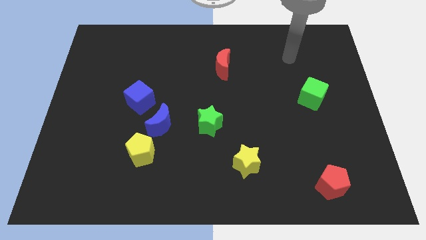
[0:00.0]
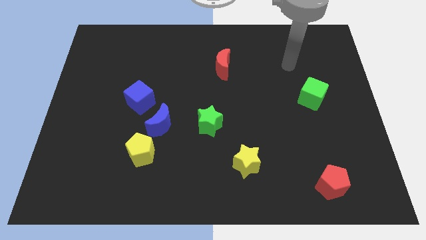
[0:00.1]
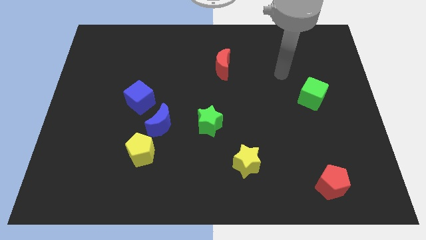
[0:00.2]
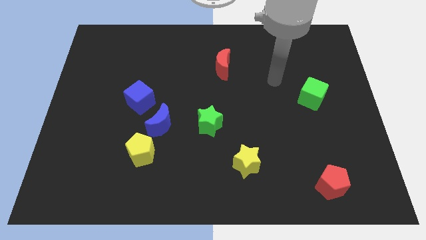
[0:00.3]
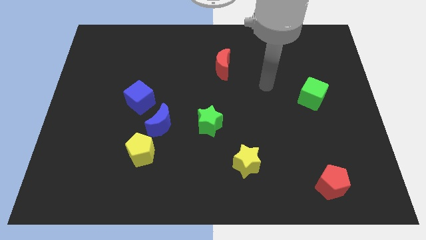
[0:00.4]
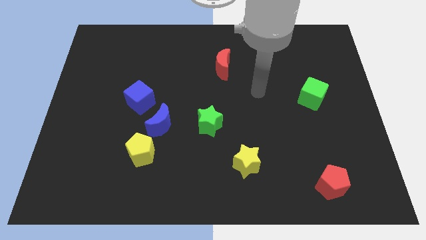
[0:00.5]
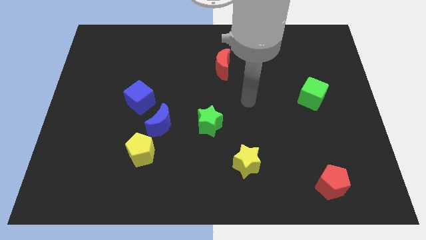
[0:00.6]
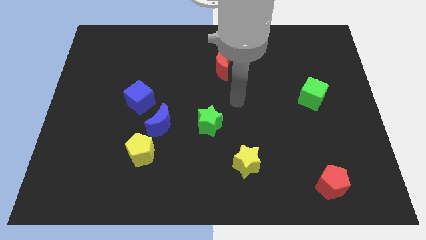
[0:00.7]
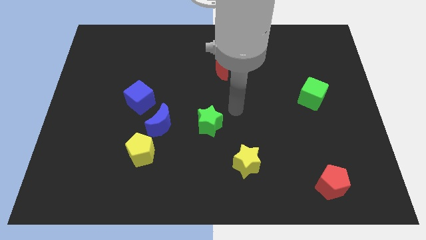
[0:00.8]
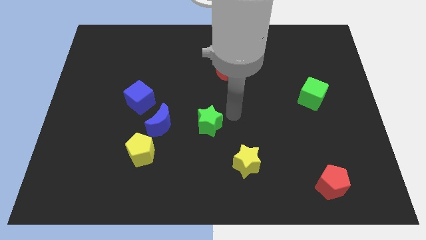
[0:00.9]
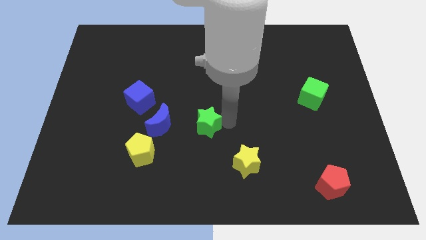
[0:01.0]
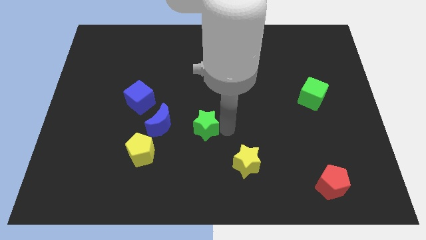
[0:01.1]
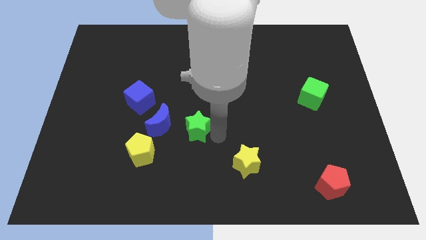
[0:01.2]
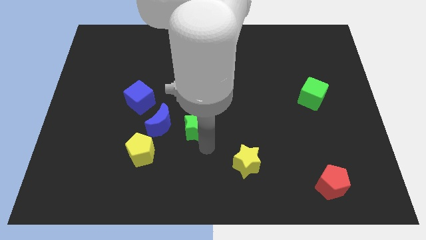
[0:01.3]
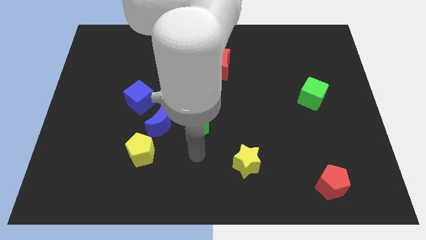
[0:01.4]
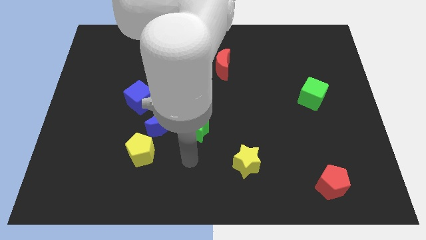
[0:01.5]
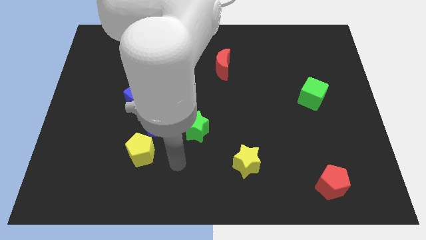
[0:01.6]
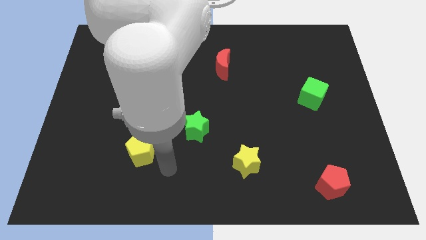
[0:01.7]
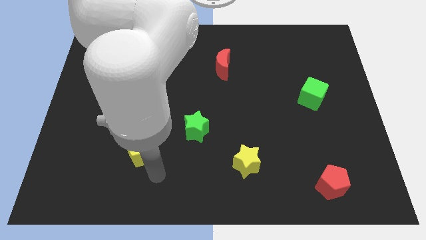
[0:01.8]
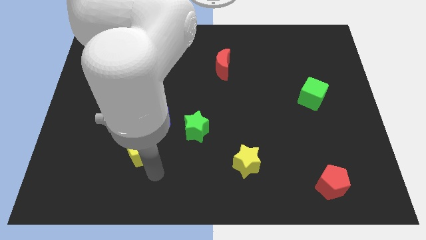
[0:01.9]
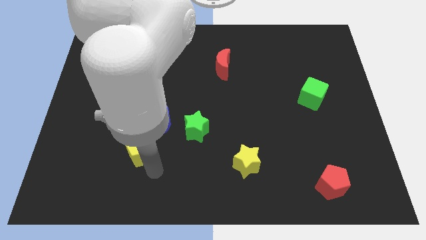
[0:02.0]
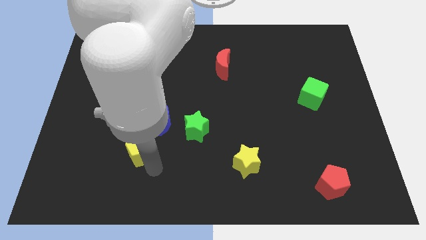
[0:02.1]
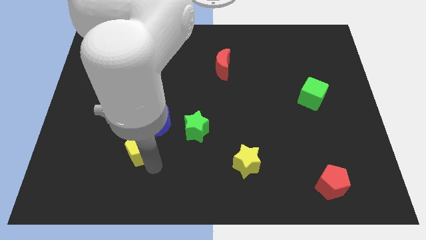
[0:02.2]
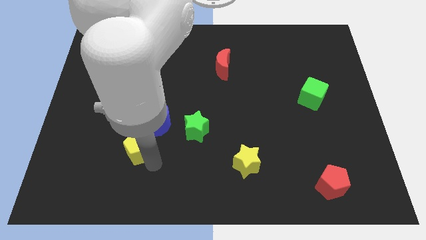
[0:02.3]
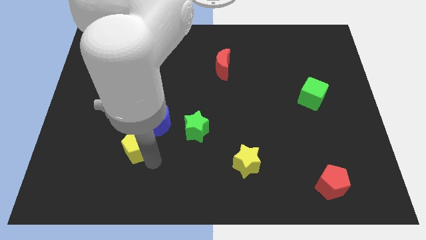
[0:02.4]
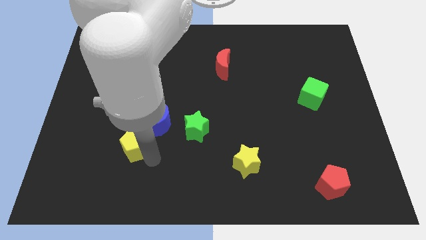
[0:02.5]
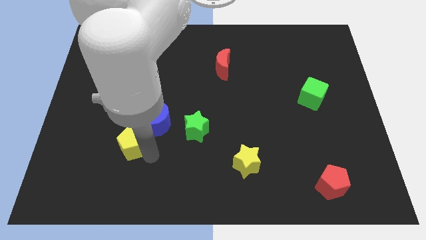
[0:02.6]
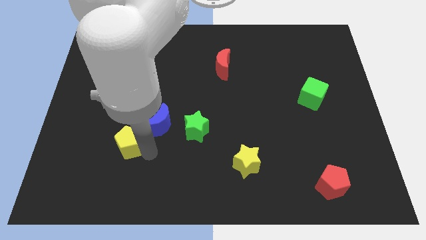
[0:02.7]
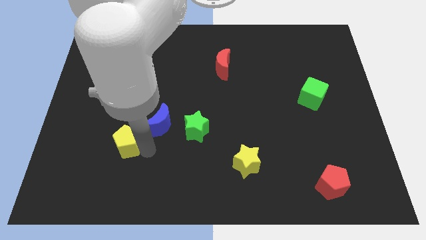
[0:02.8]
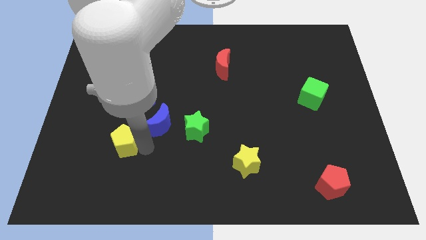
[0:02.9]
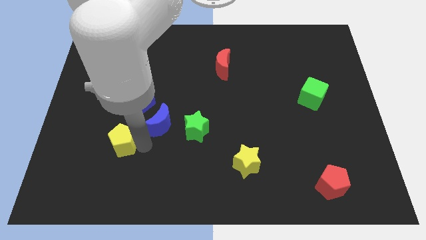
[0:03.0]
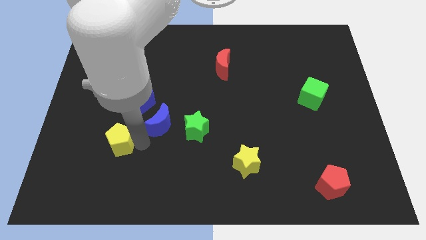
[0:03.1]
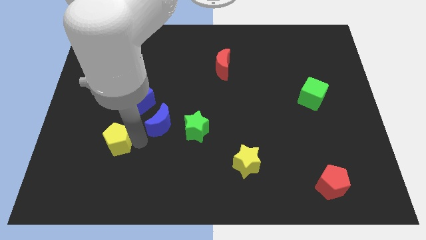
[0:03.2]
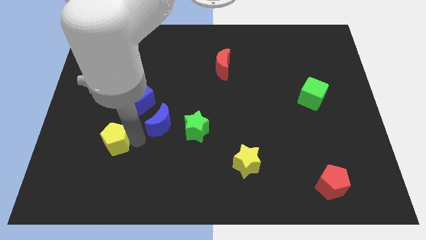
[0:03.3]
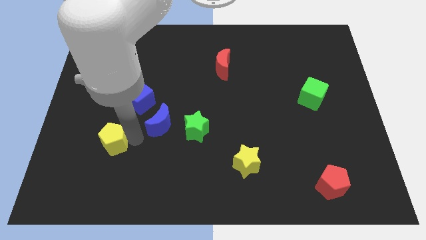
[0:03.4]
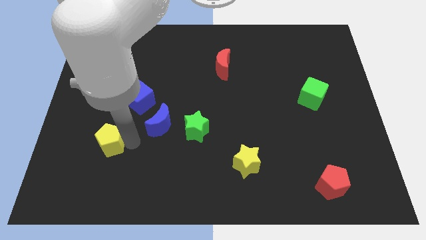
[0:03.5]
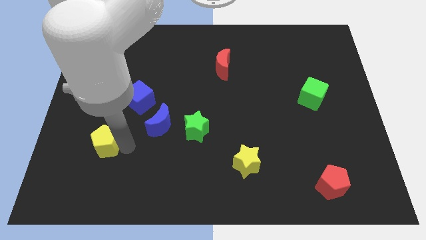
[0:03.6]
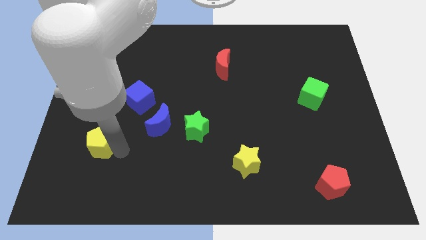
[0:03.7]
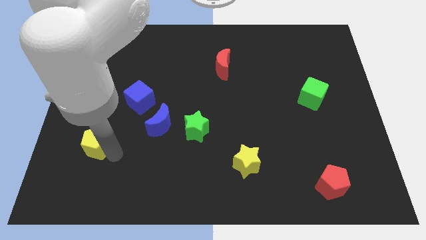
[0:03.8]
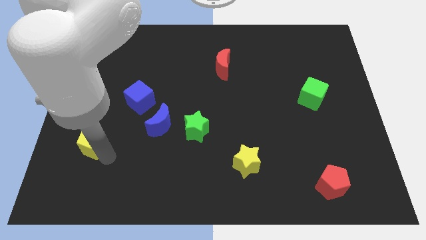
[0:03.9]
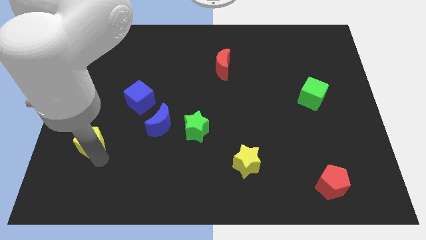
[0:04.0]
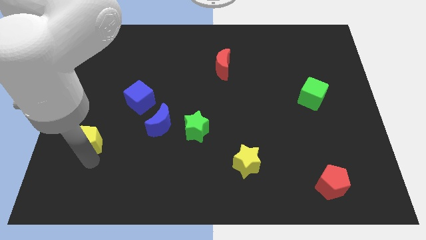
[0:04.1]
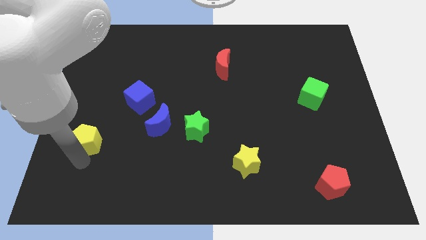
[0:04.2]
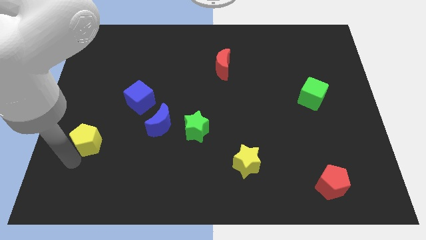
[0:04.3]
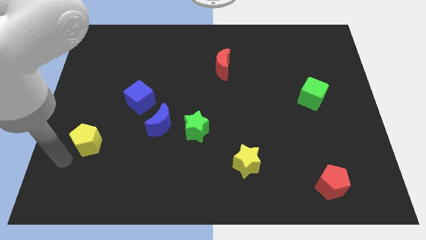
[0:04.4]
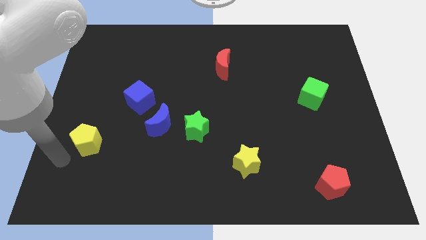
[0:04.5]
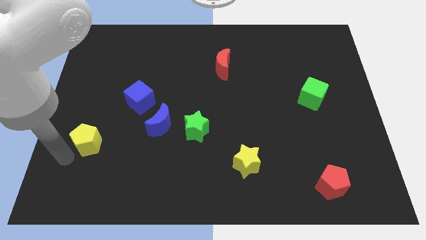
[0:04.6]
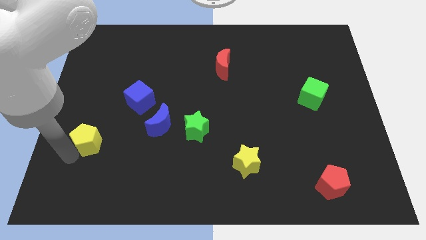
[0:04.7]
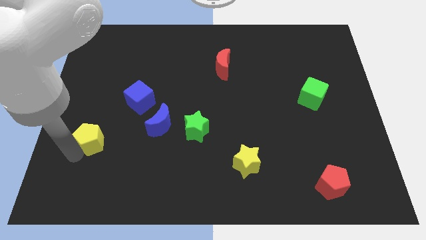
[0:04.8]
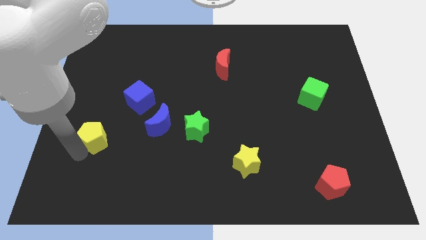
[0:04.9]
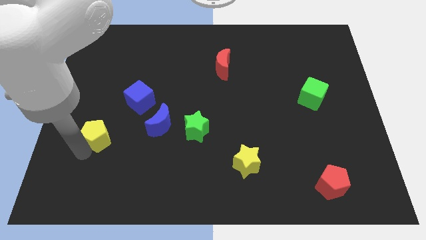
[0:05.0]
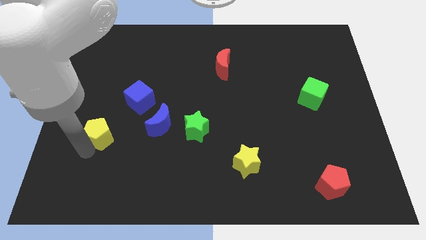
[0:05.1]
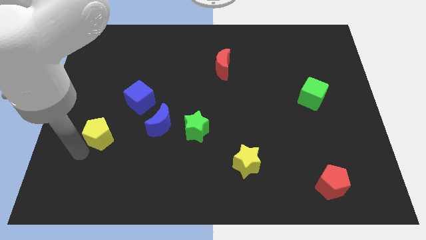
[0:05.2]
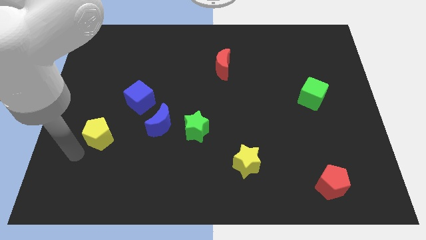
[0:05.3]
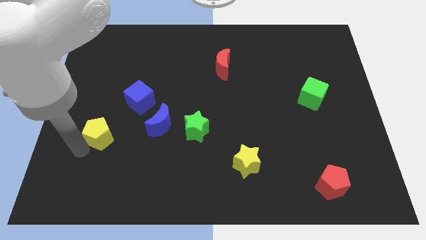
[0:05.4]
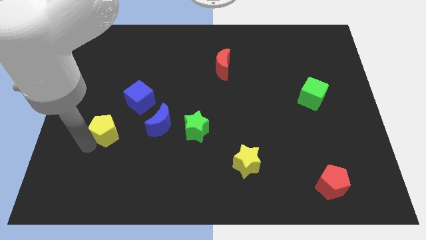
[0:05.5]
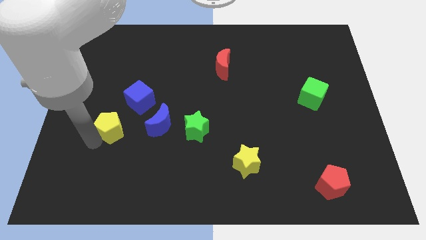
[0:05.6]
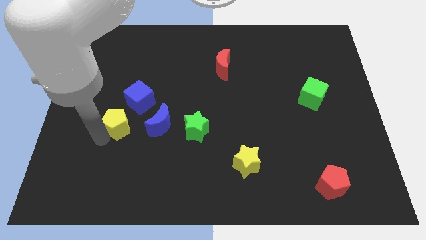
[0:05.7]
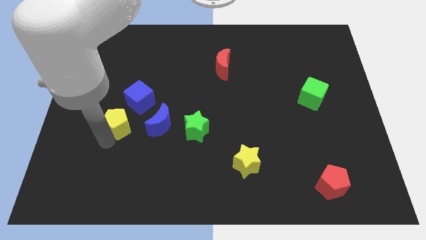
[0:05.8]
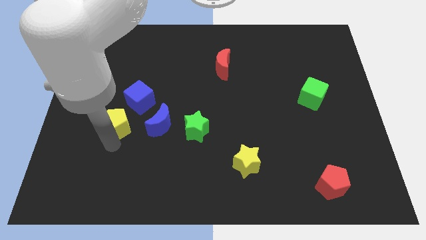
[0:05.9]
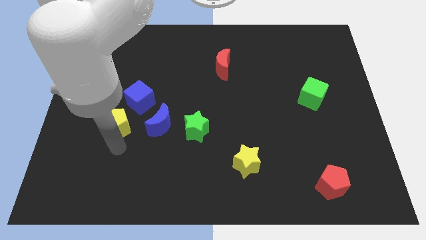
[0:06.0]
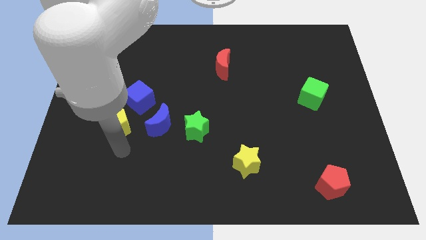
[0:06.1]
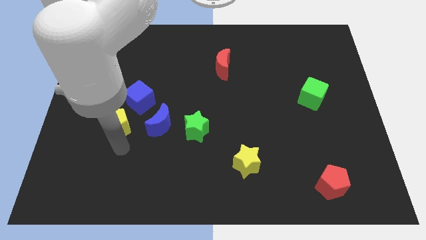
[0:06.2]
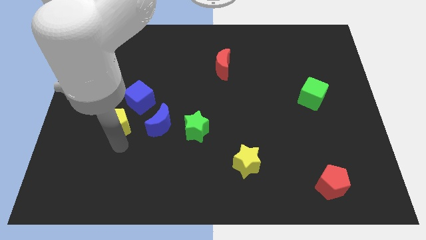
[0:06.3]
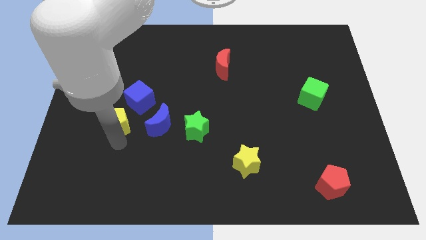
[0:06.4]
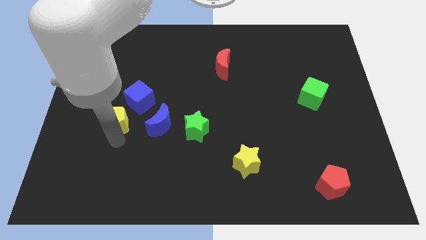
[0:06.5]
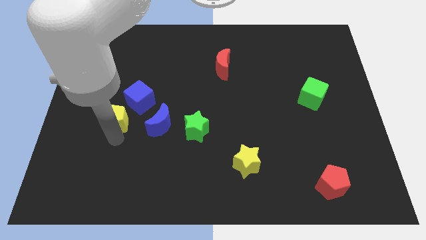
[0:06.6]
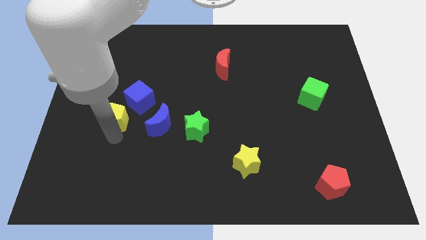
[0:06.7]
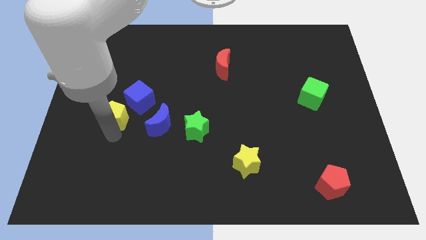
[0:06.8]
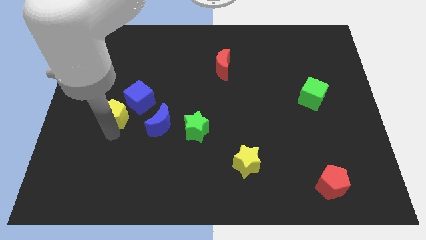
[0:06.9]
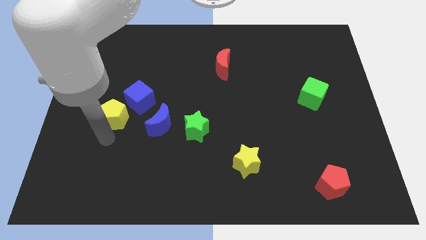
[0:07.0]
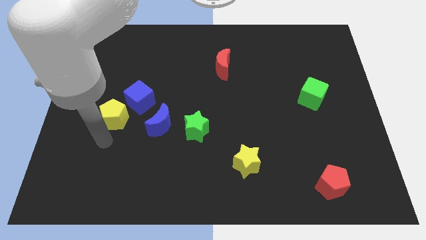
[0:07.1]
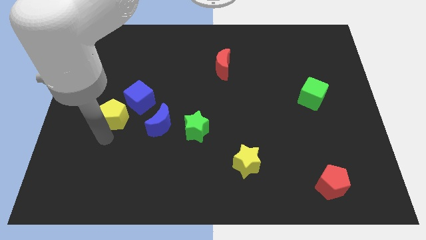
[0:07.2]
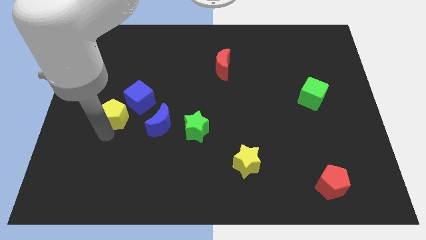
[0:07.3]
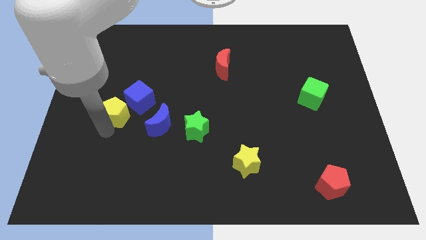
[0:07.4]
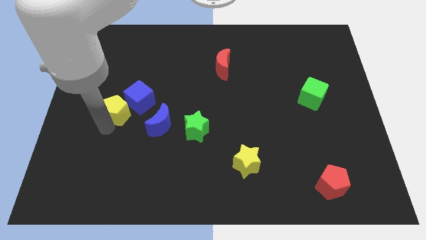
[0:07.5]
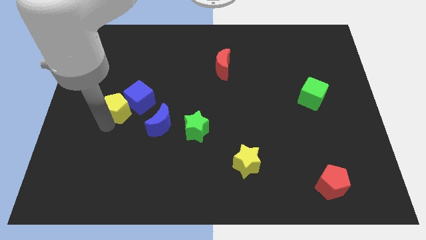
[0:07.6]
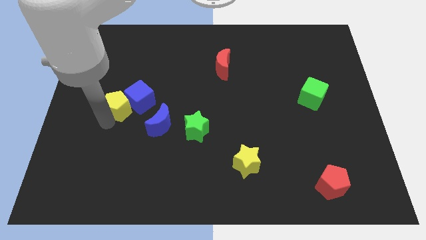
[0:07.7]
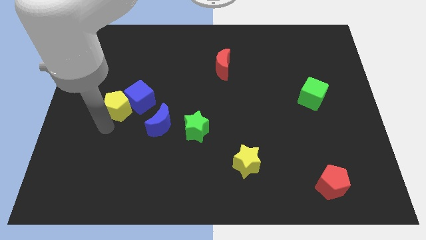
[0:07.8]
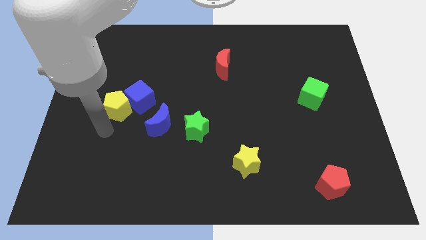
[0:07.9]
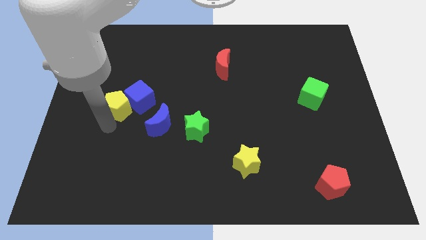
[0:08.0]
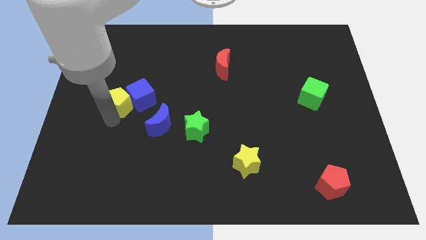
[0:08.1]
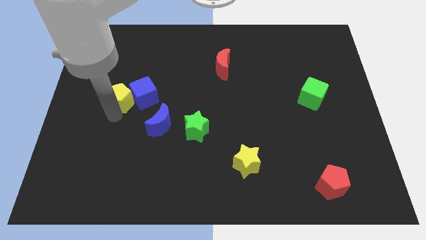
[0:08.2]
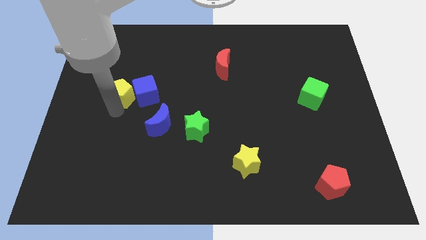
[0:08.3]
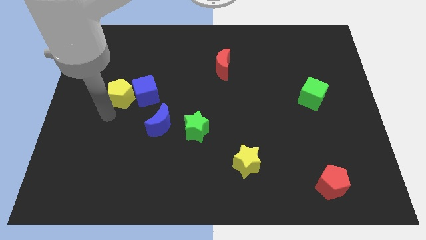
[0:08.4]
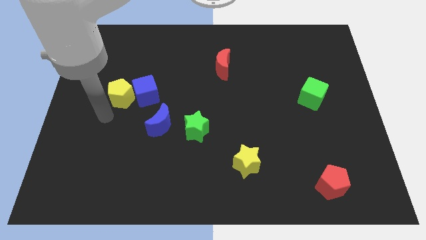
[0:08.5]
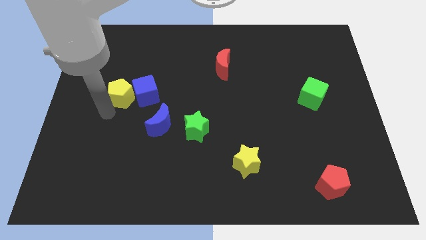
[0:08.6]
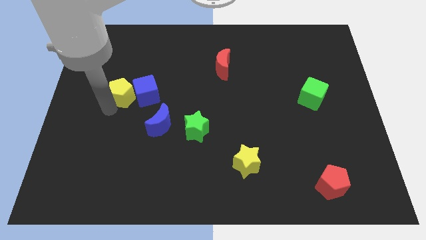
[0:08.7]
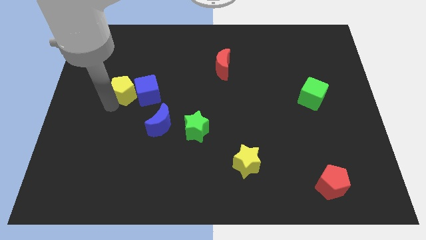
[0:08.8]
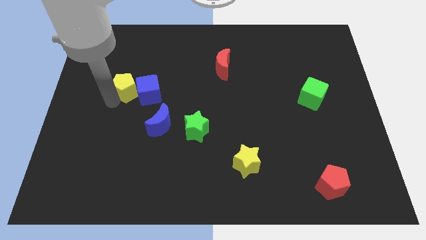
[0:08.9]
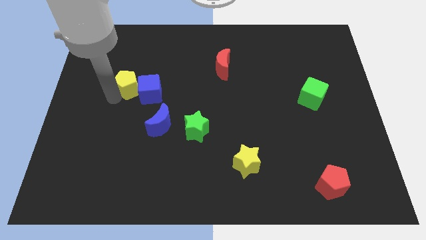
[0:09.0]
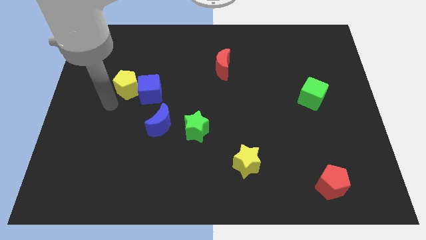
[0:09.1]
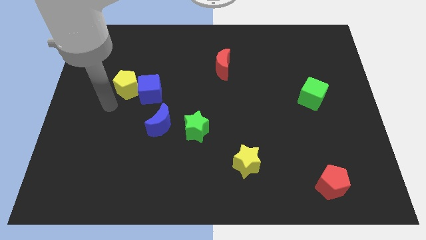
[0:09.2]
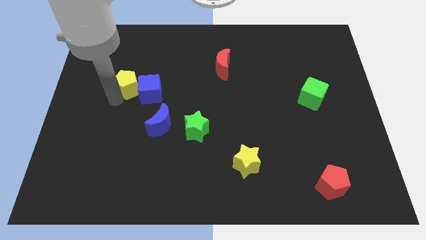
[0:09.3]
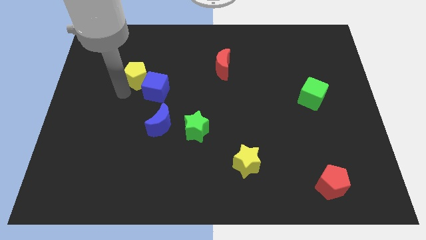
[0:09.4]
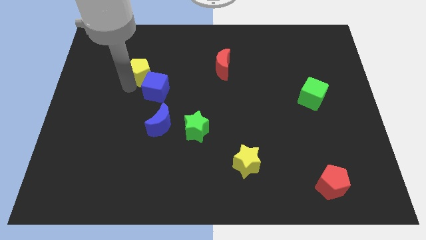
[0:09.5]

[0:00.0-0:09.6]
move the yellow pentagon above the blue cube
